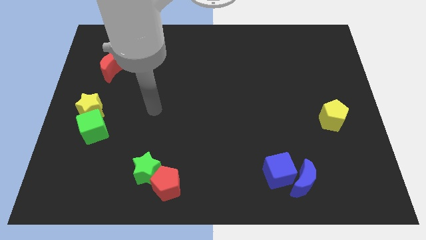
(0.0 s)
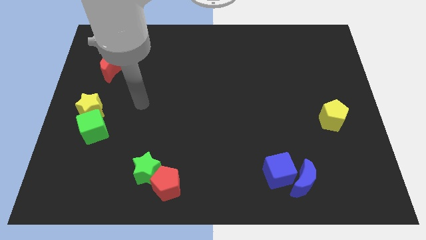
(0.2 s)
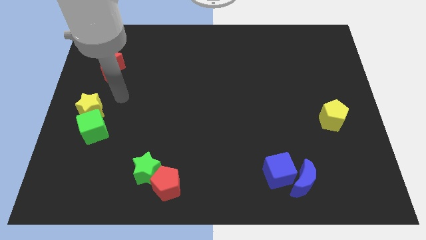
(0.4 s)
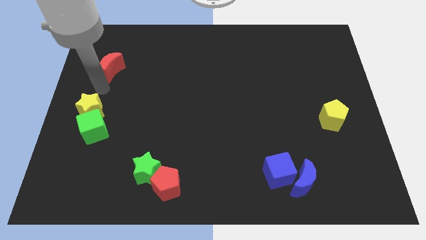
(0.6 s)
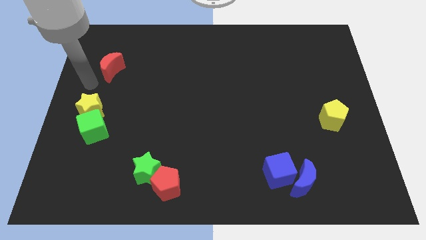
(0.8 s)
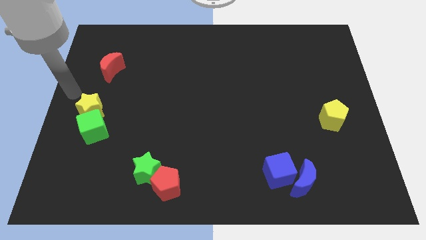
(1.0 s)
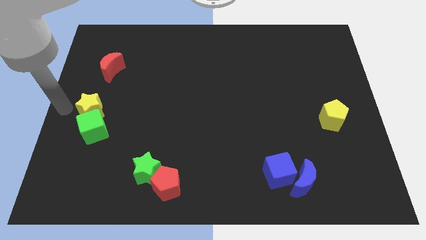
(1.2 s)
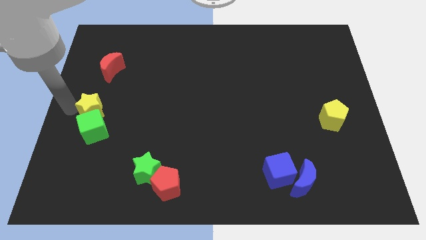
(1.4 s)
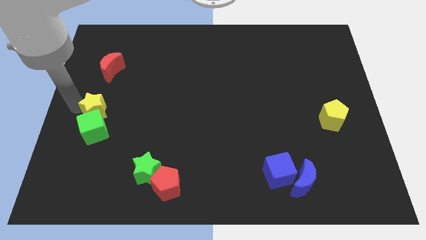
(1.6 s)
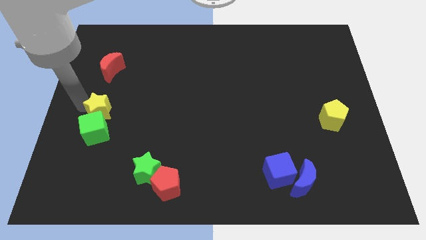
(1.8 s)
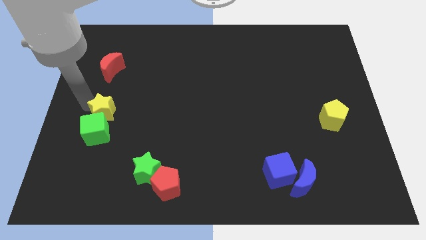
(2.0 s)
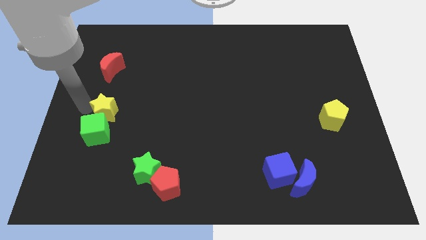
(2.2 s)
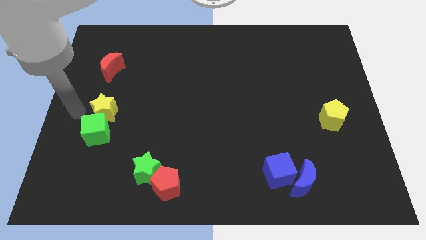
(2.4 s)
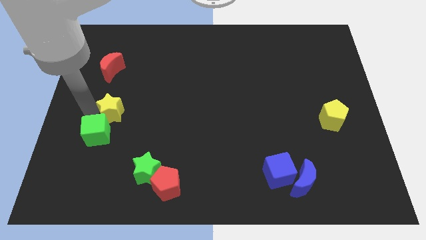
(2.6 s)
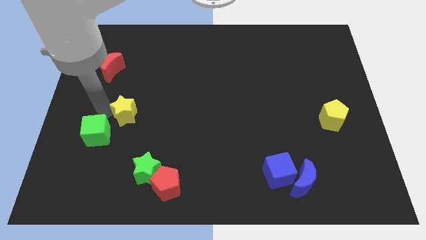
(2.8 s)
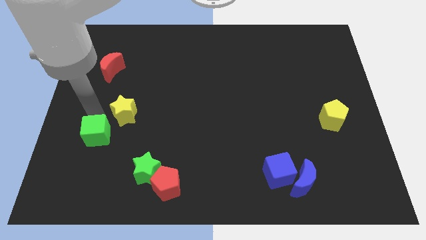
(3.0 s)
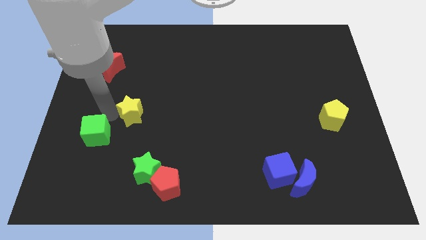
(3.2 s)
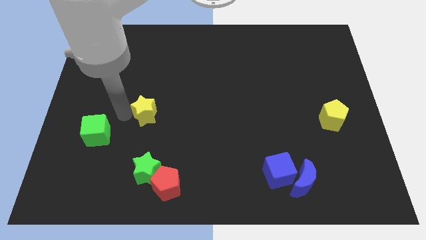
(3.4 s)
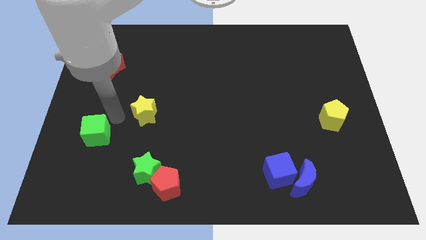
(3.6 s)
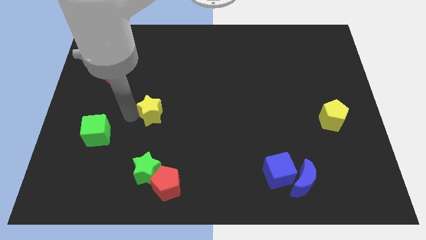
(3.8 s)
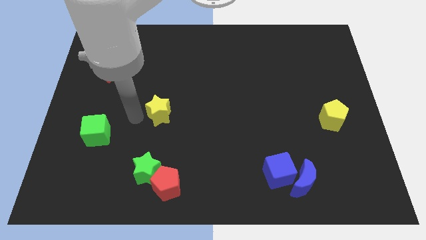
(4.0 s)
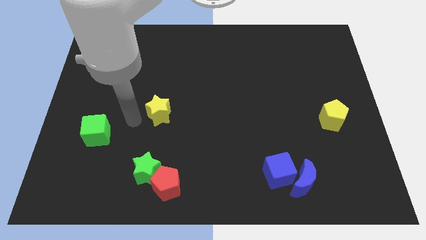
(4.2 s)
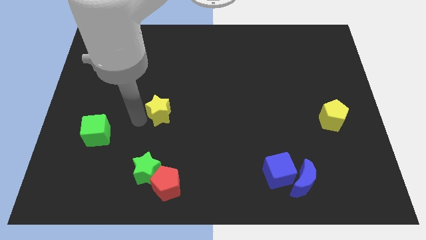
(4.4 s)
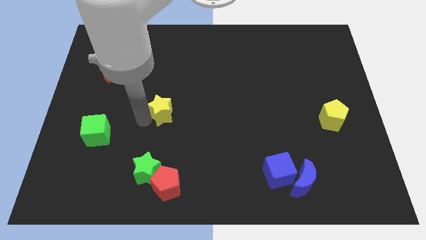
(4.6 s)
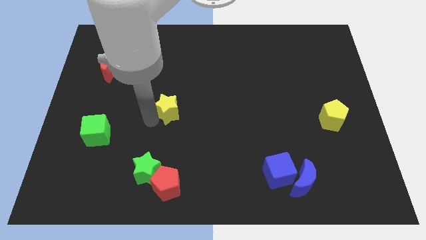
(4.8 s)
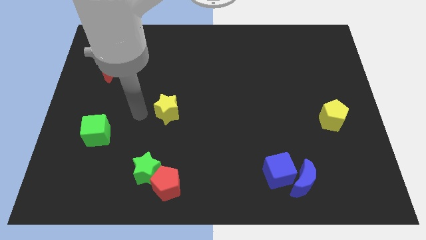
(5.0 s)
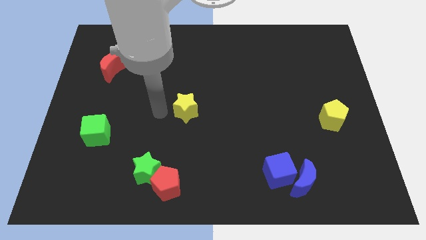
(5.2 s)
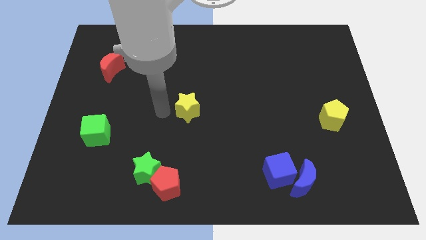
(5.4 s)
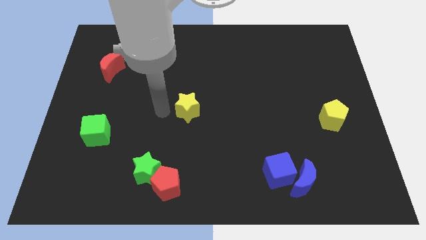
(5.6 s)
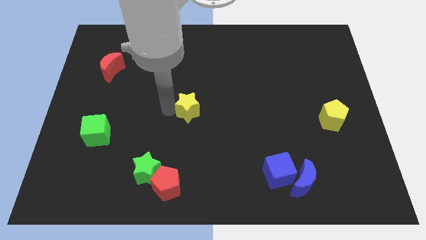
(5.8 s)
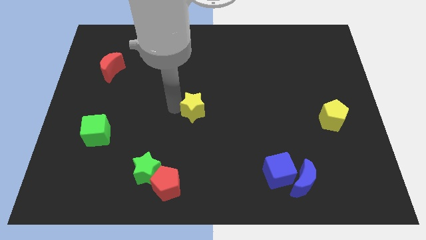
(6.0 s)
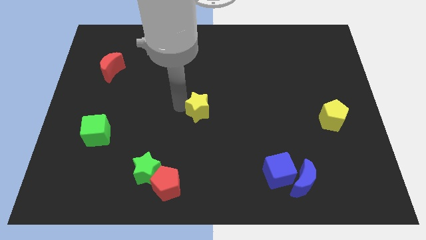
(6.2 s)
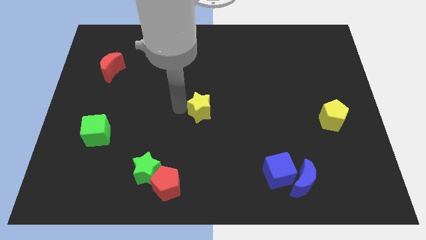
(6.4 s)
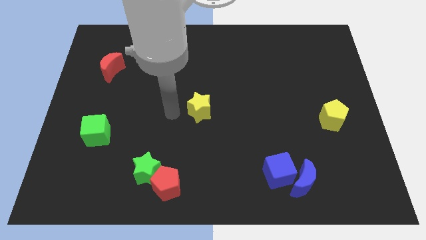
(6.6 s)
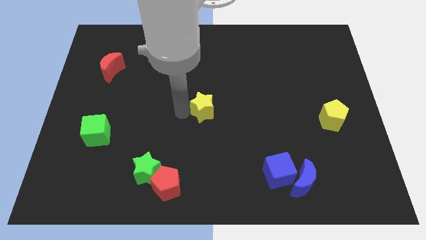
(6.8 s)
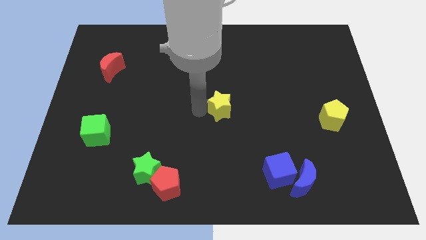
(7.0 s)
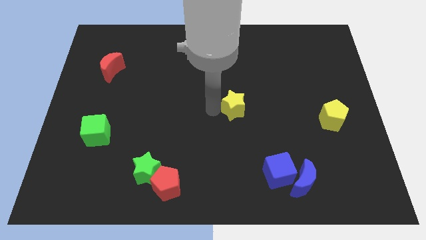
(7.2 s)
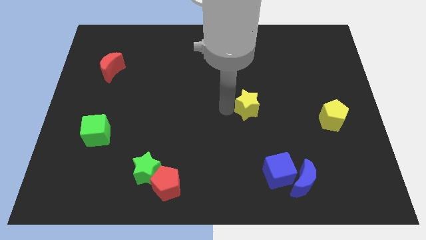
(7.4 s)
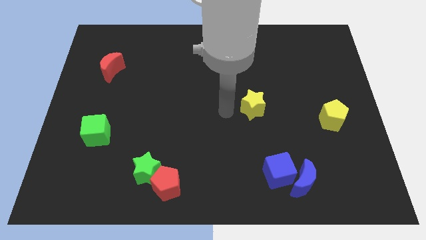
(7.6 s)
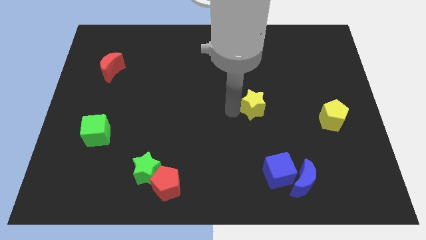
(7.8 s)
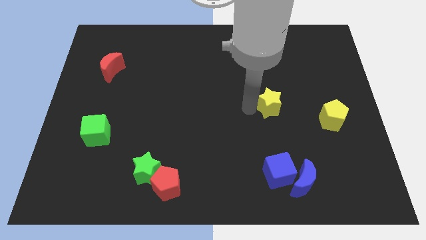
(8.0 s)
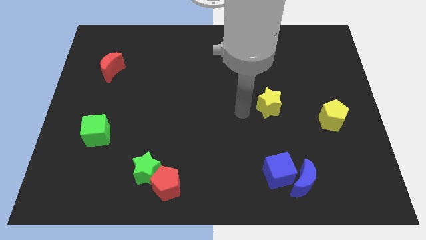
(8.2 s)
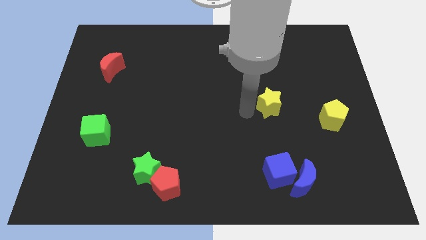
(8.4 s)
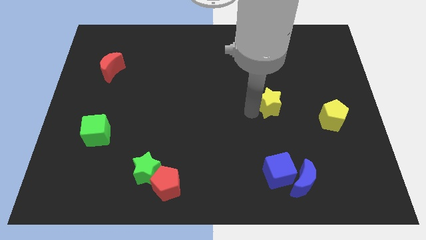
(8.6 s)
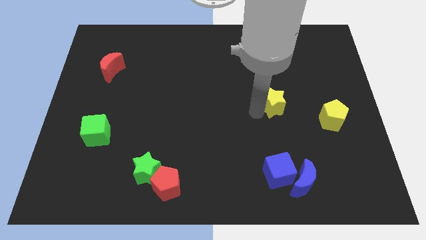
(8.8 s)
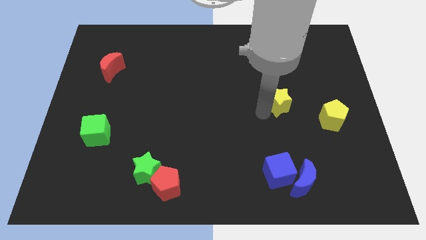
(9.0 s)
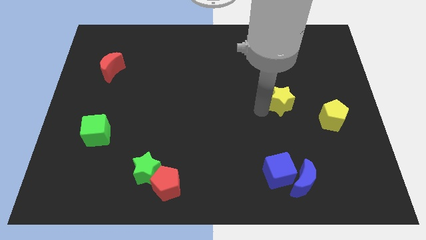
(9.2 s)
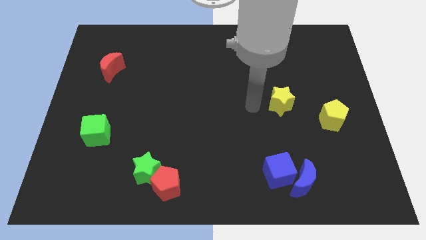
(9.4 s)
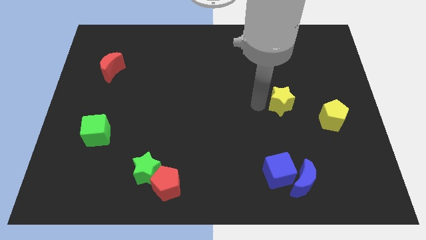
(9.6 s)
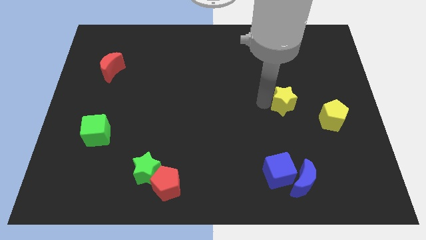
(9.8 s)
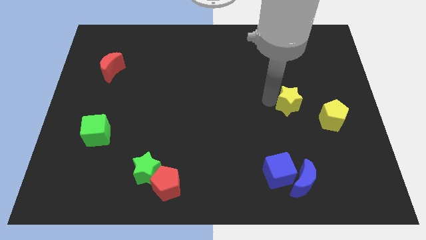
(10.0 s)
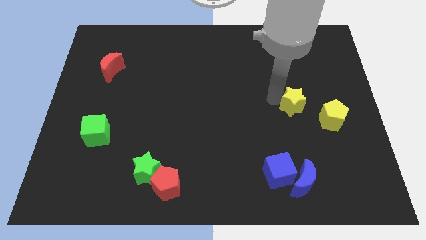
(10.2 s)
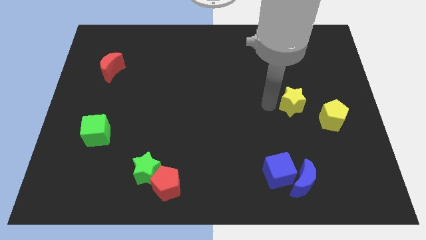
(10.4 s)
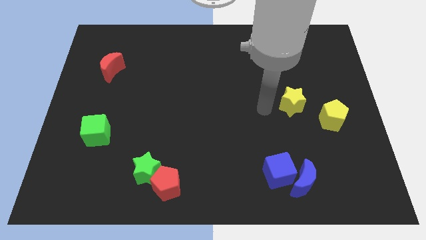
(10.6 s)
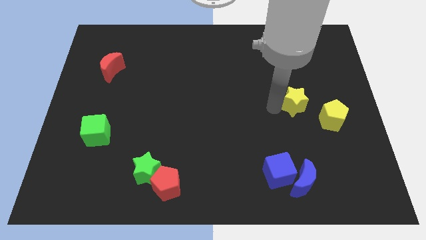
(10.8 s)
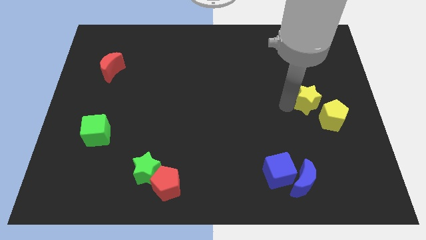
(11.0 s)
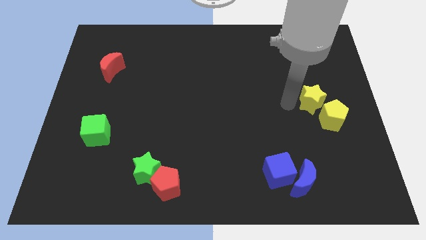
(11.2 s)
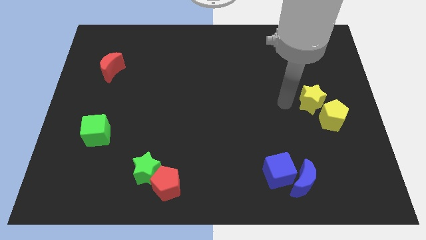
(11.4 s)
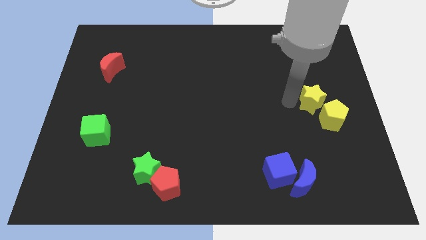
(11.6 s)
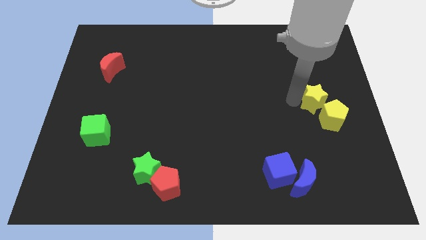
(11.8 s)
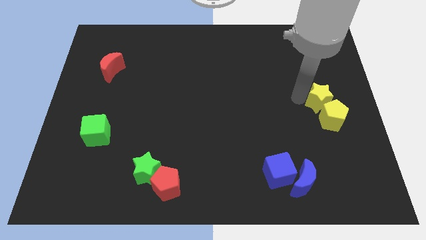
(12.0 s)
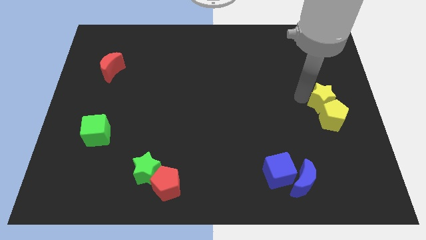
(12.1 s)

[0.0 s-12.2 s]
slide the yellow star to the right side of the board
